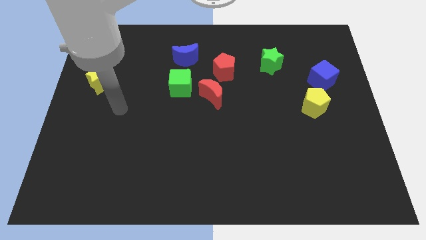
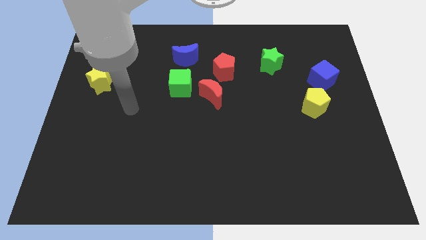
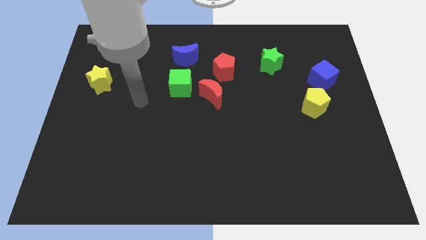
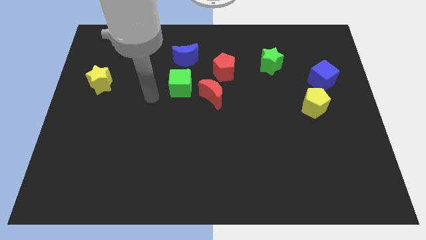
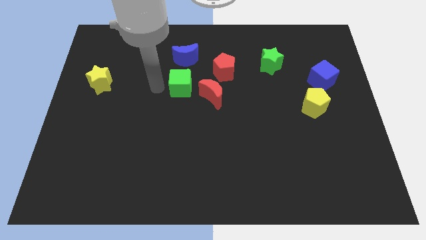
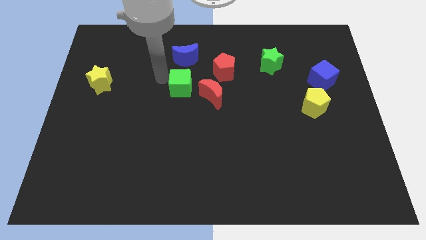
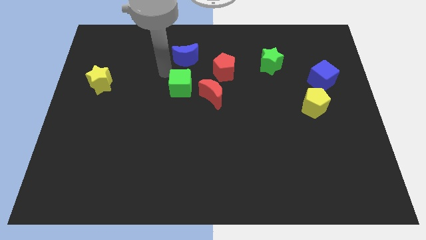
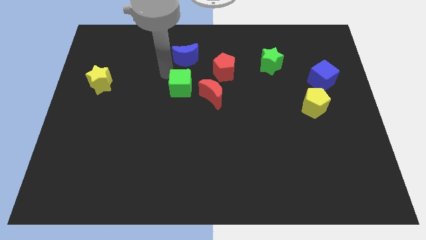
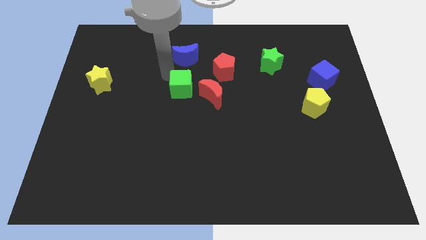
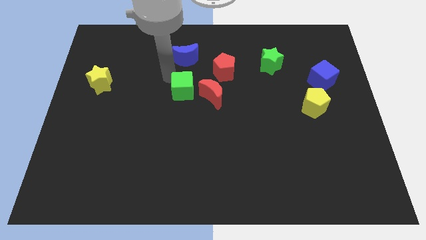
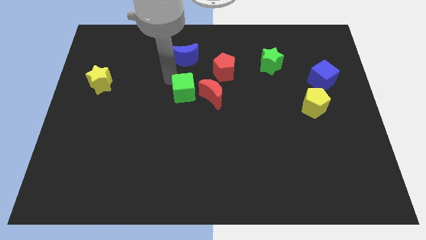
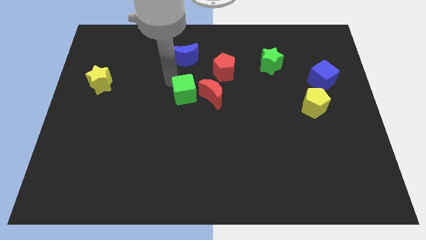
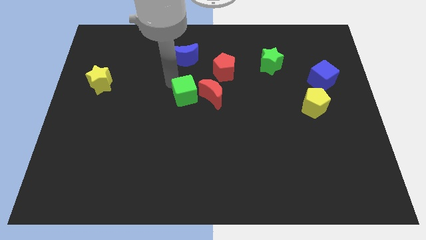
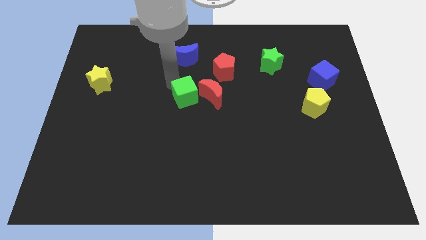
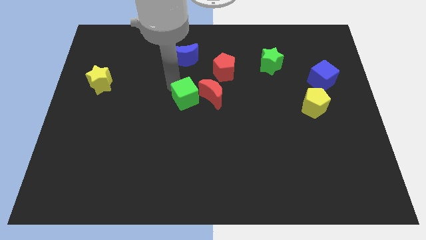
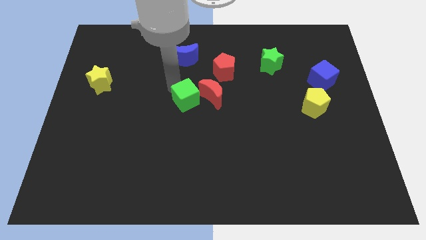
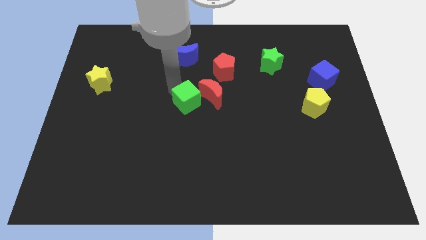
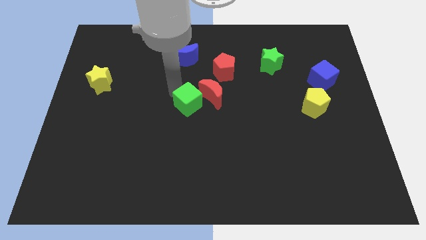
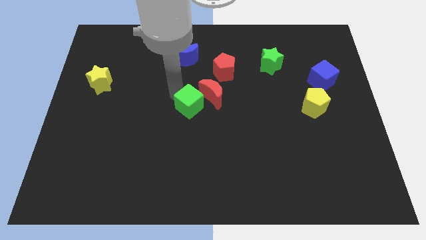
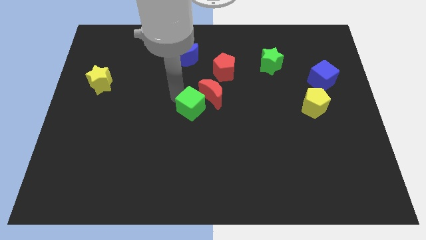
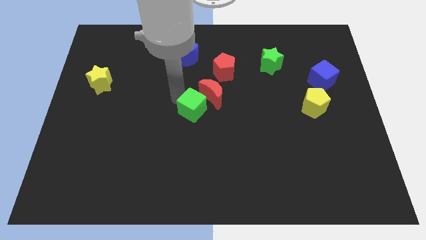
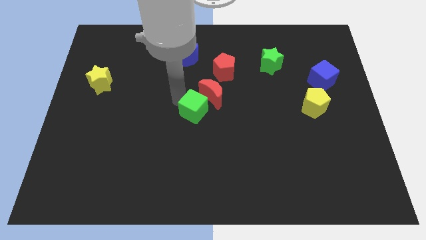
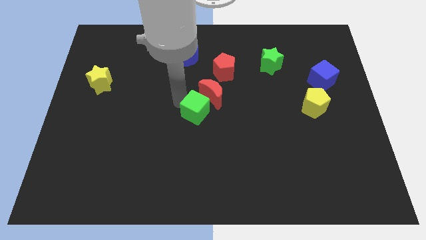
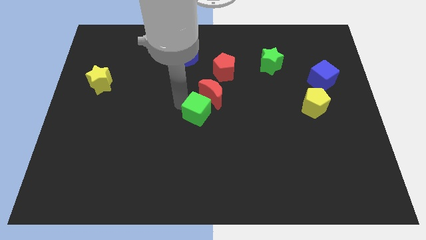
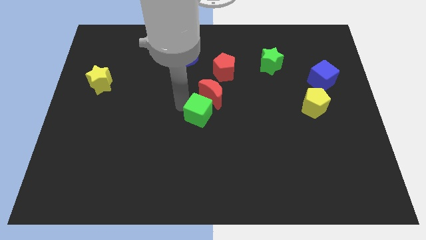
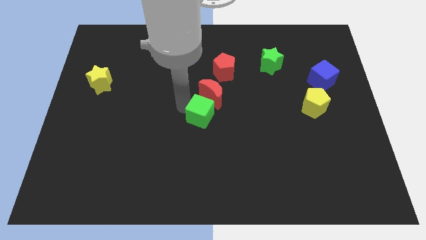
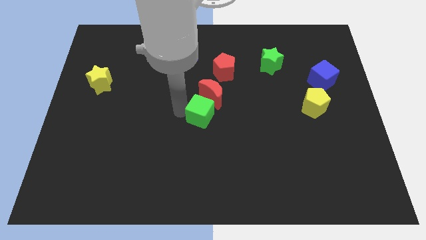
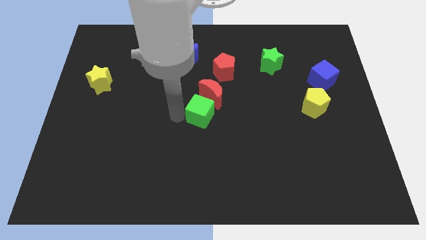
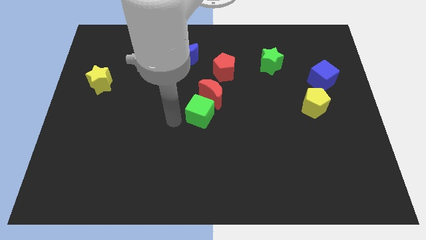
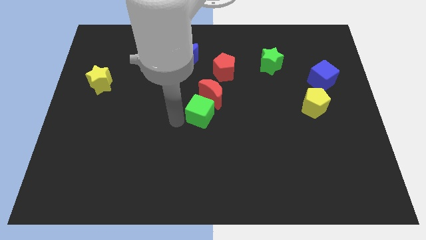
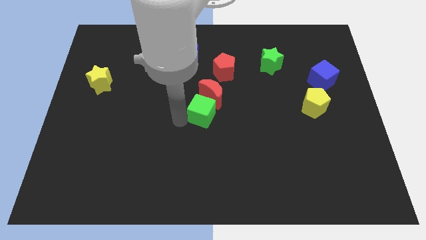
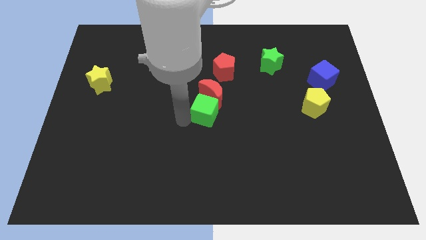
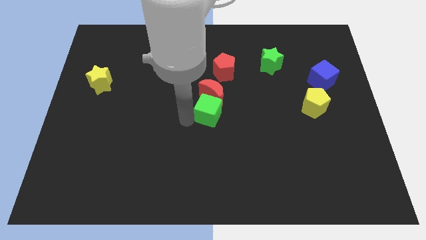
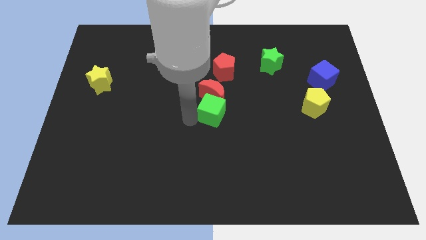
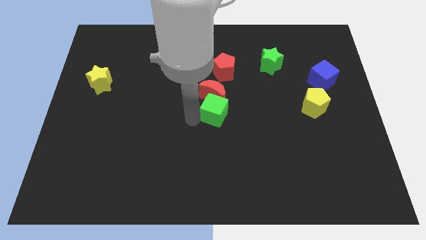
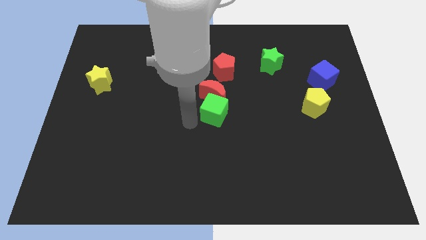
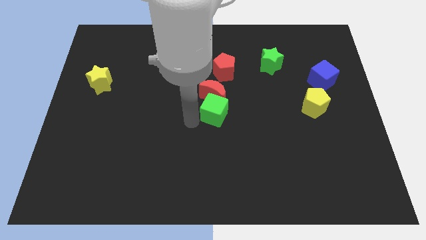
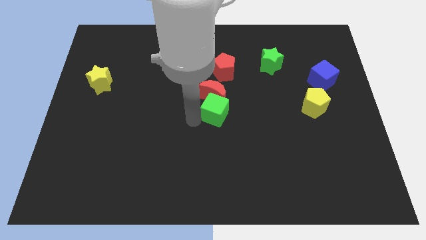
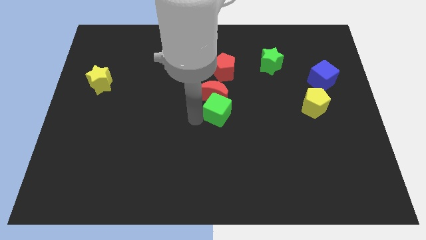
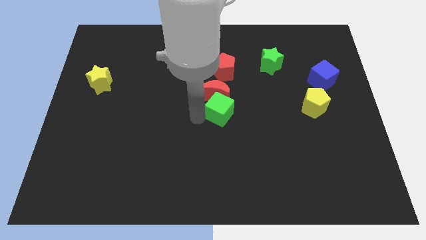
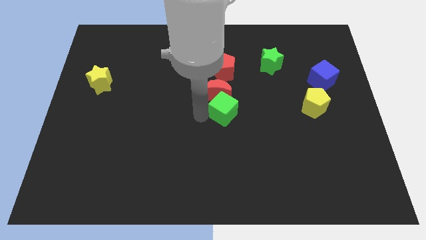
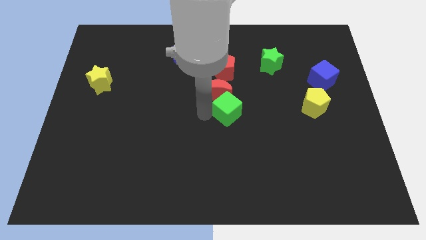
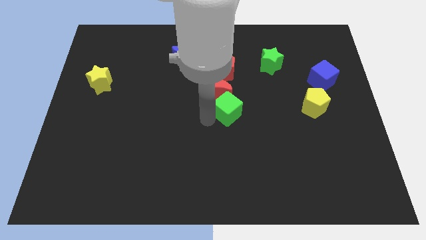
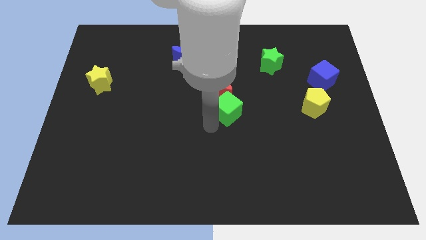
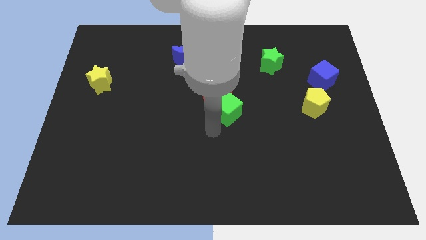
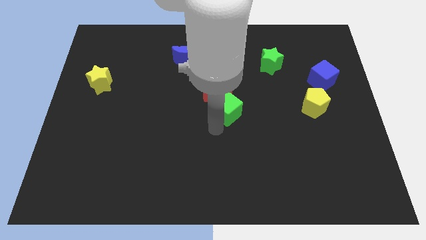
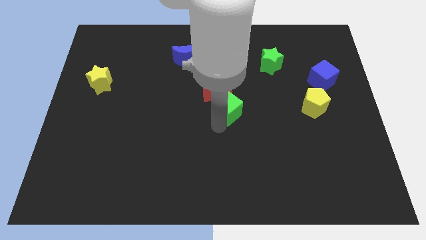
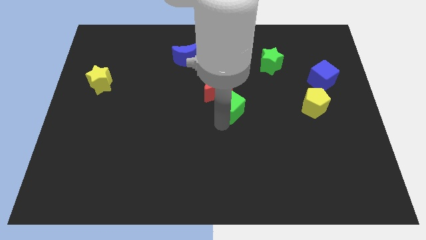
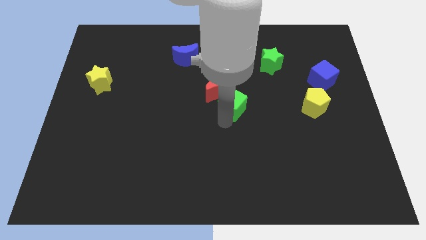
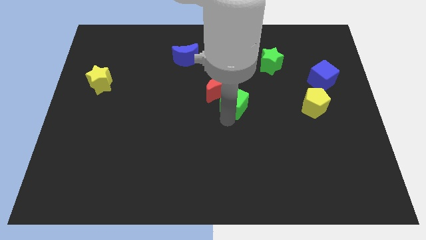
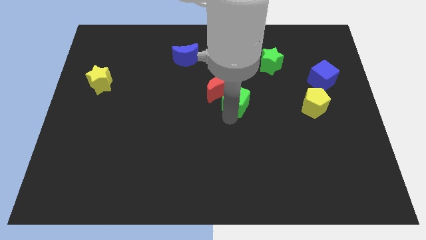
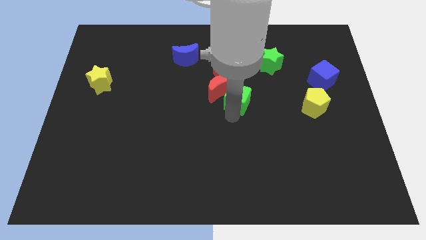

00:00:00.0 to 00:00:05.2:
push the green cube to the bottom right of the red pentagon

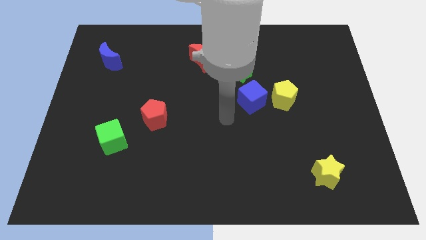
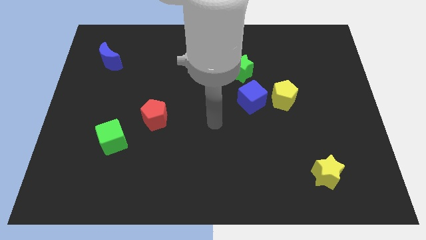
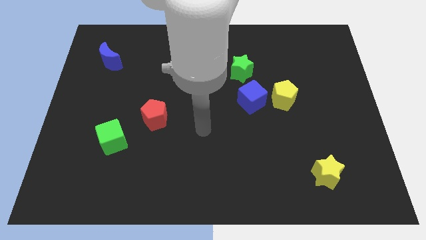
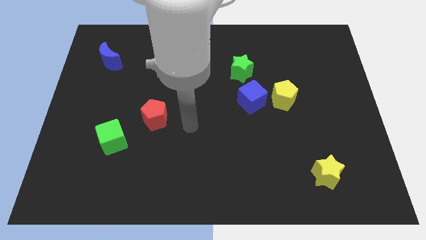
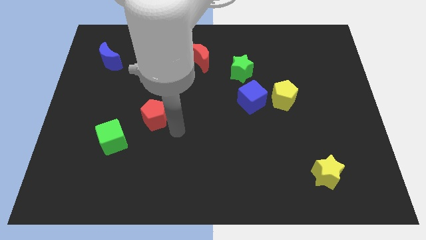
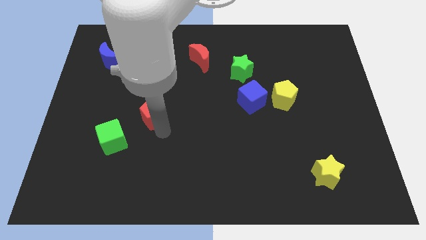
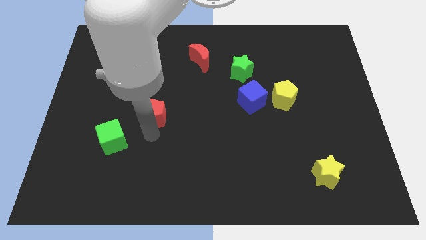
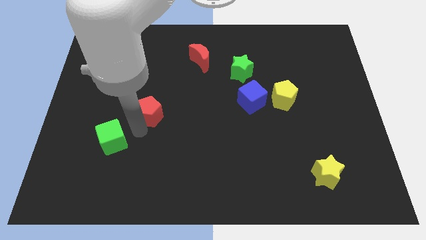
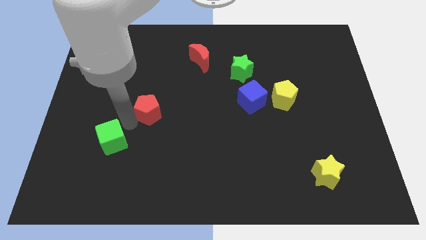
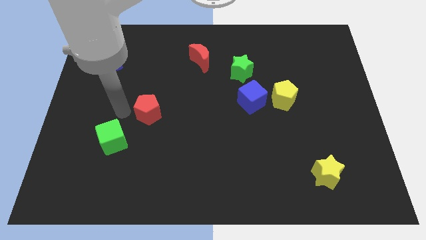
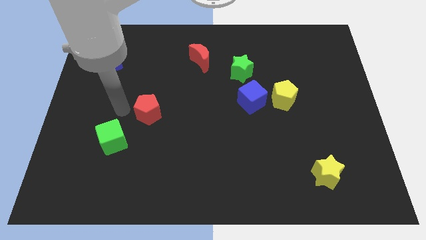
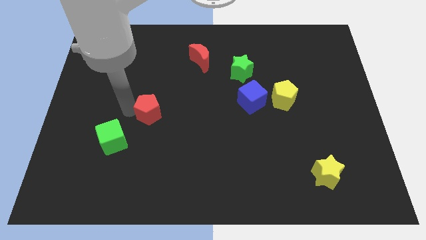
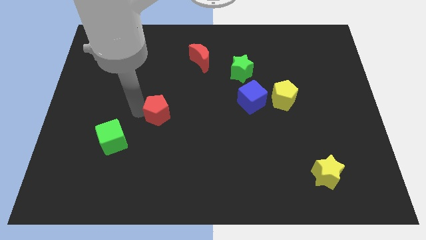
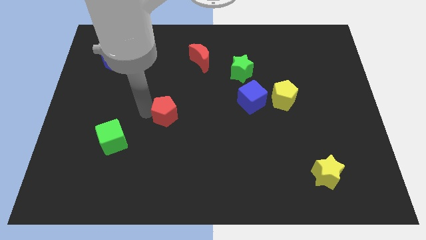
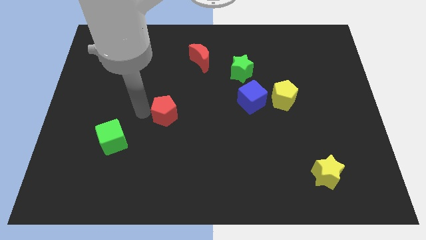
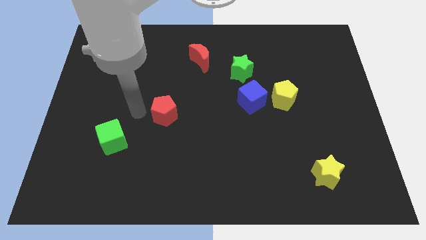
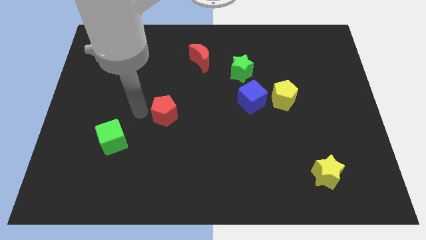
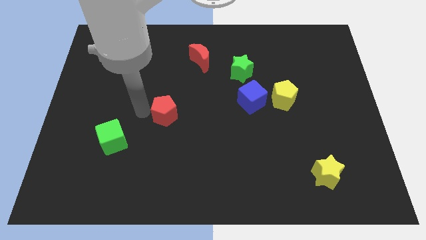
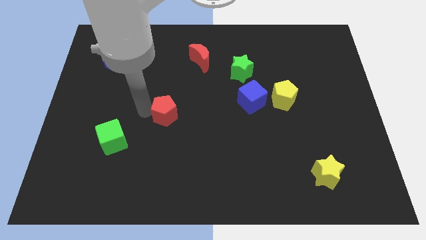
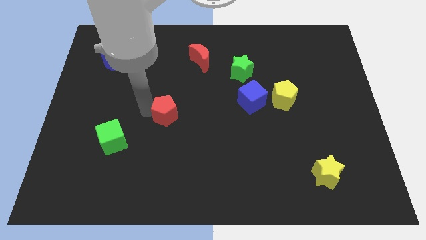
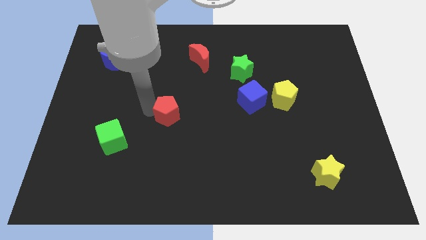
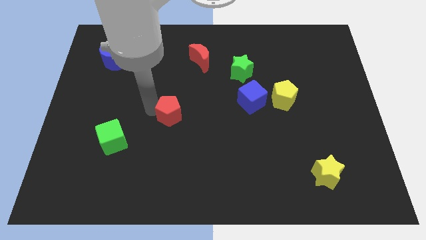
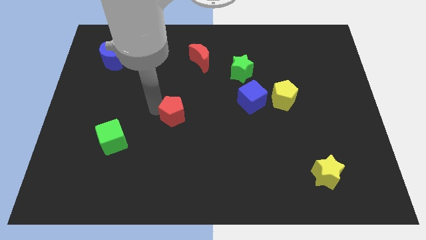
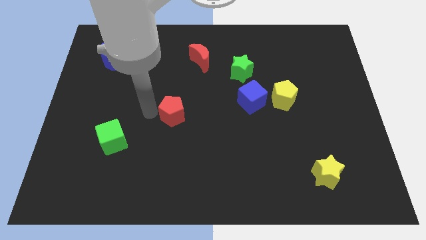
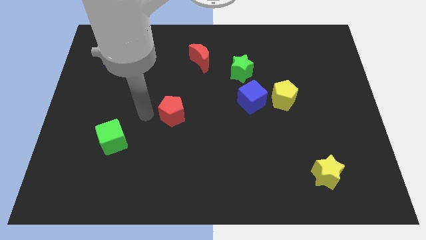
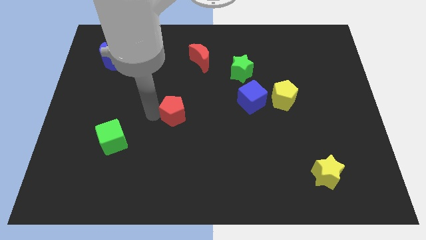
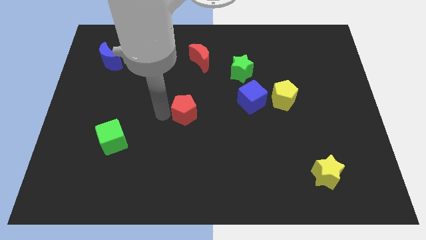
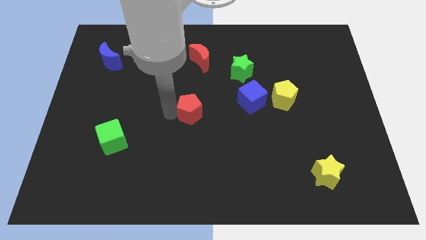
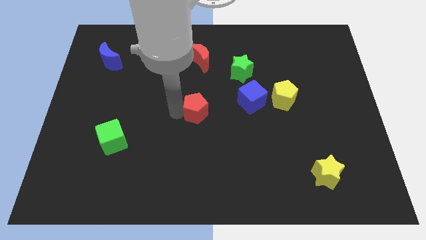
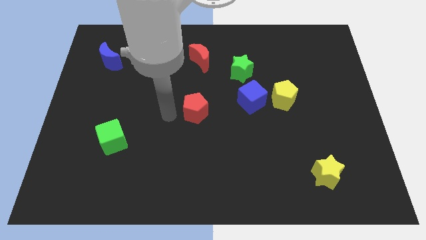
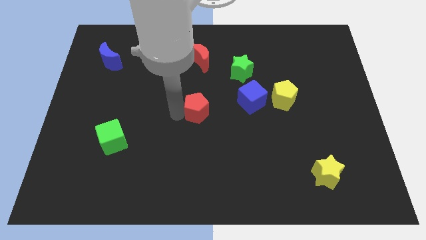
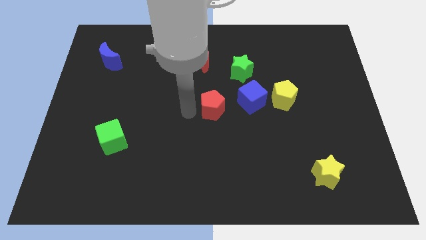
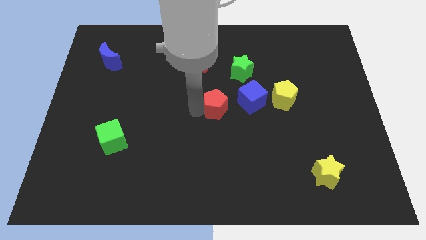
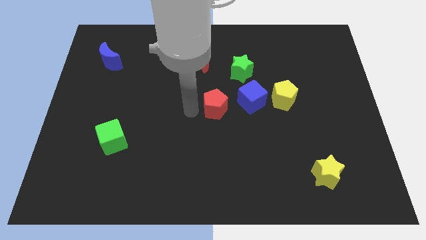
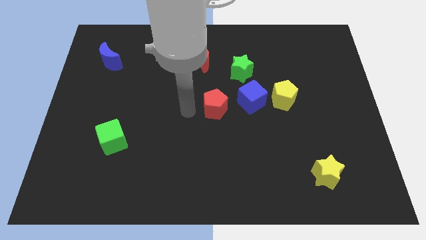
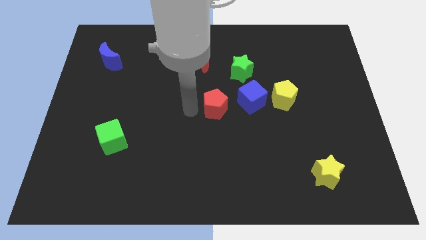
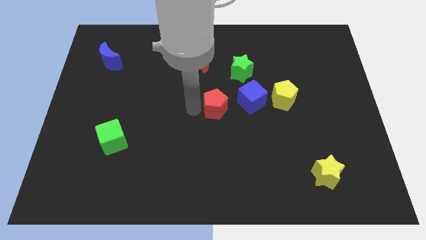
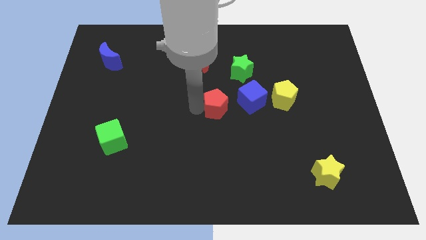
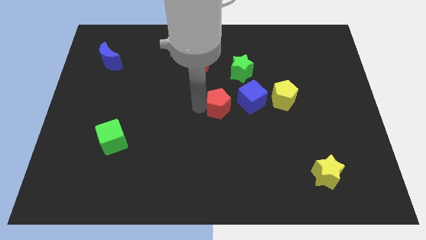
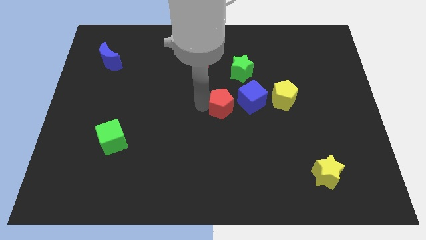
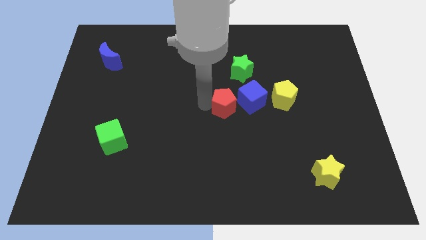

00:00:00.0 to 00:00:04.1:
move the red pentagon to the bottom of the green star
